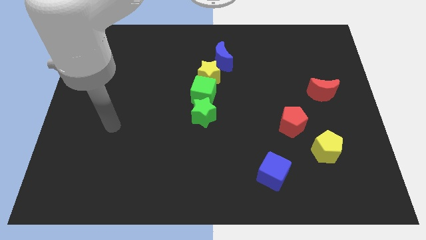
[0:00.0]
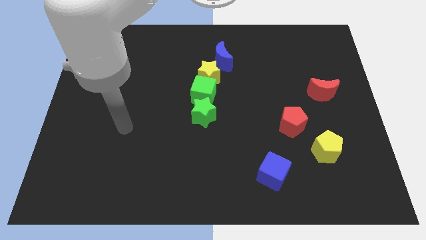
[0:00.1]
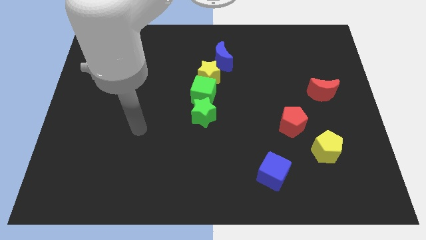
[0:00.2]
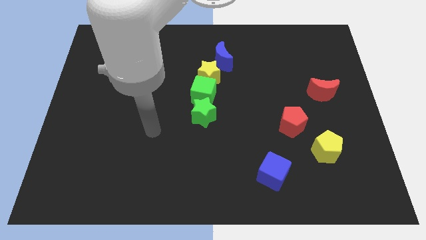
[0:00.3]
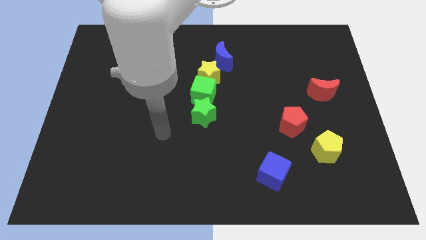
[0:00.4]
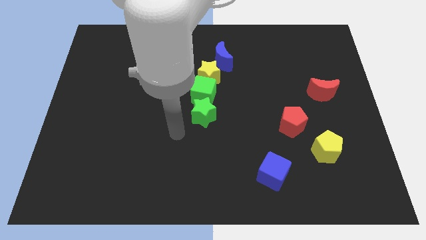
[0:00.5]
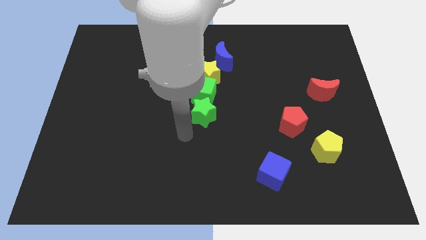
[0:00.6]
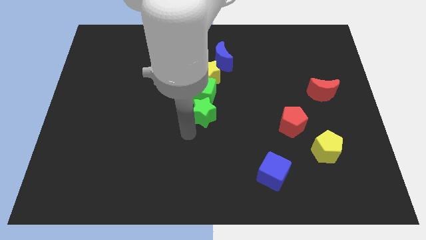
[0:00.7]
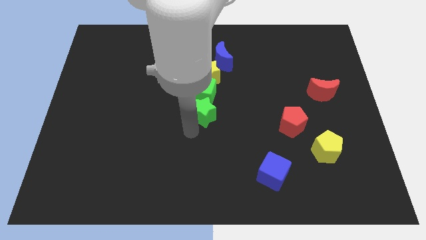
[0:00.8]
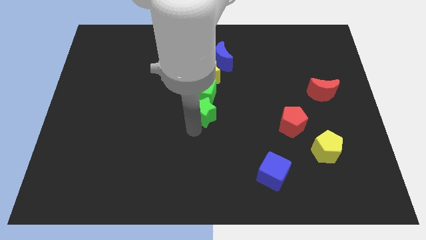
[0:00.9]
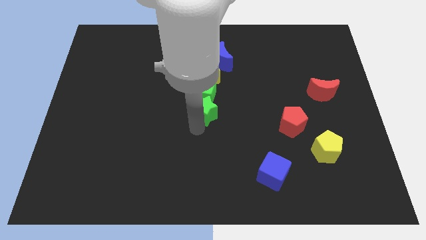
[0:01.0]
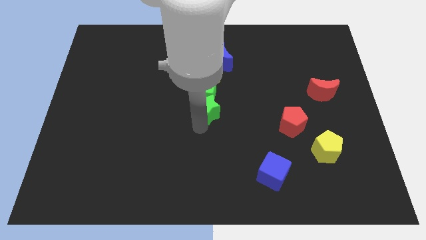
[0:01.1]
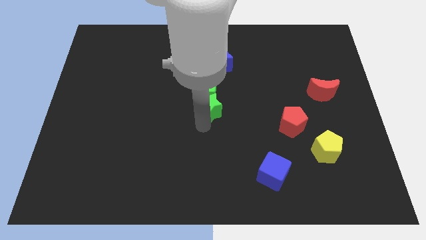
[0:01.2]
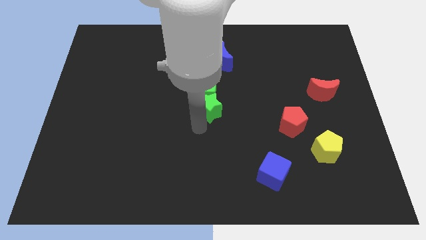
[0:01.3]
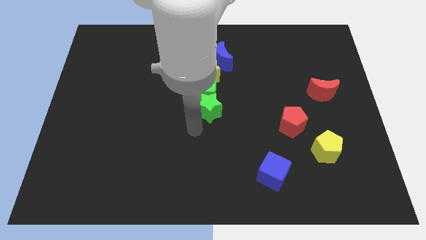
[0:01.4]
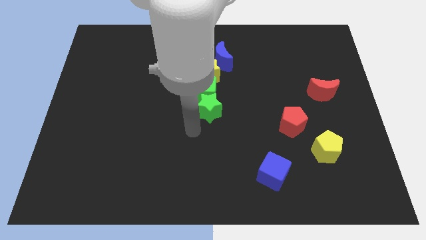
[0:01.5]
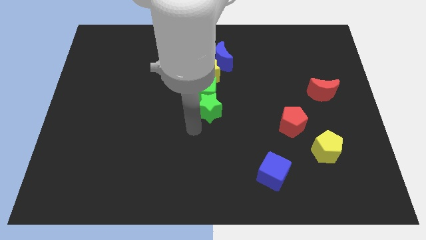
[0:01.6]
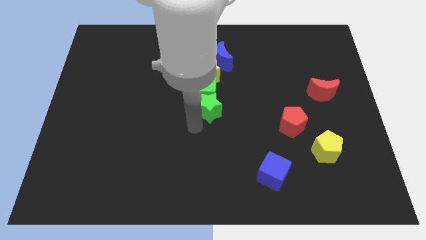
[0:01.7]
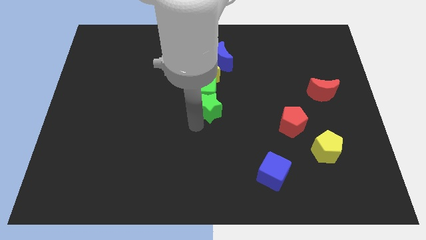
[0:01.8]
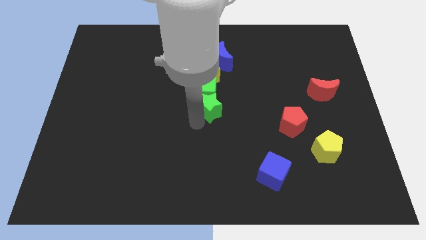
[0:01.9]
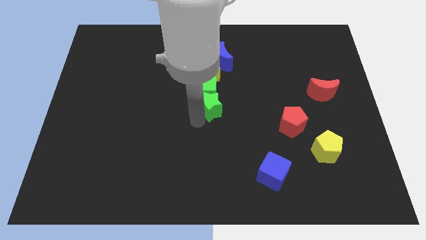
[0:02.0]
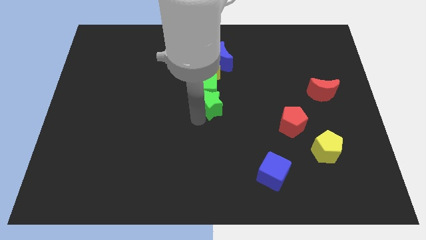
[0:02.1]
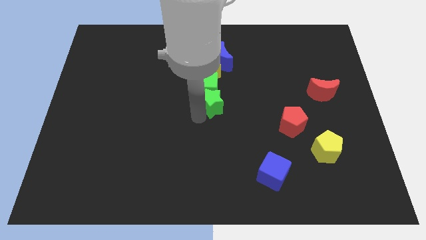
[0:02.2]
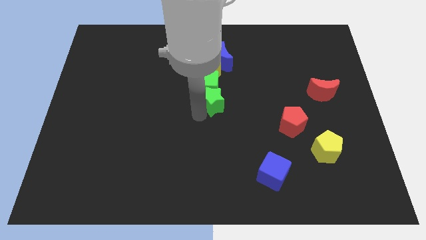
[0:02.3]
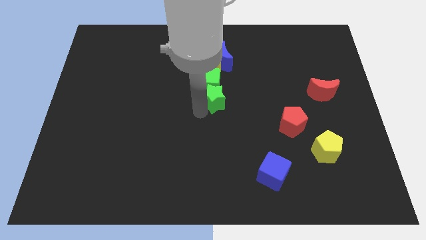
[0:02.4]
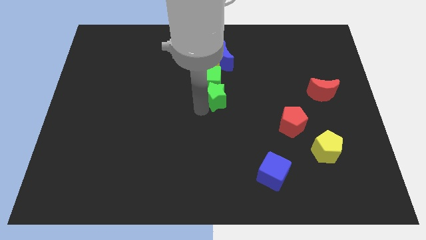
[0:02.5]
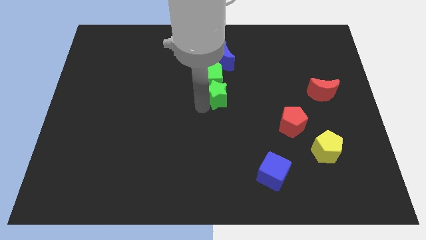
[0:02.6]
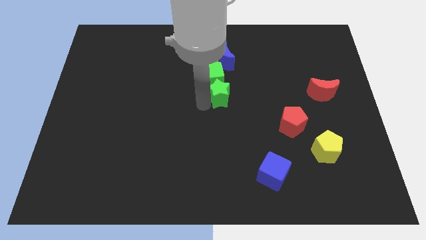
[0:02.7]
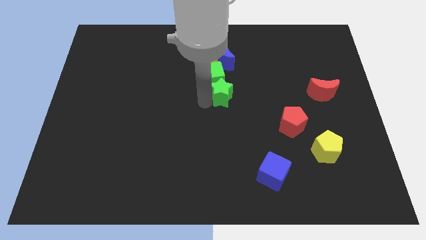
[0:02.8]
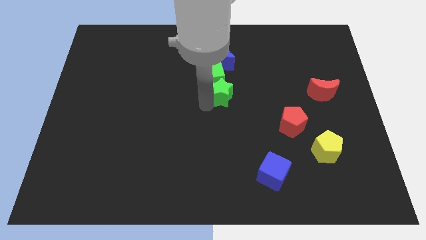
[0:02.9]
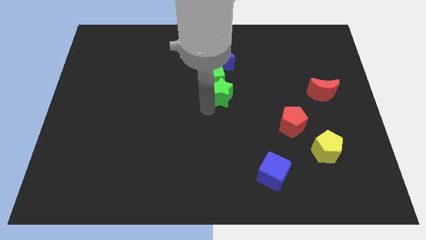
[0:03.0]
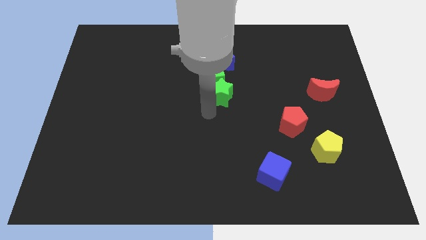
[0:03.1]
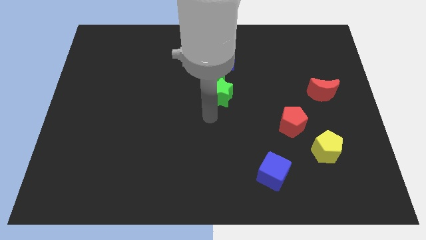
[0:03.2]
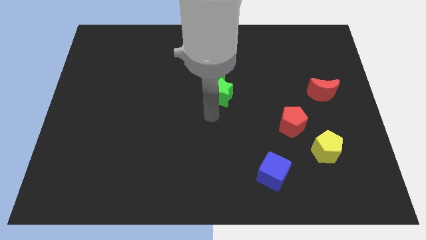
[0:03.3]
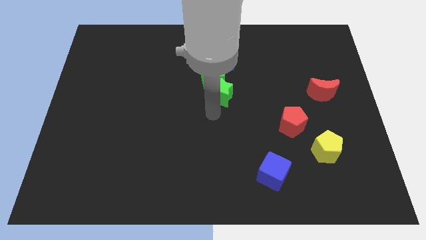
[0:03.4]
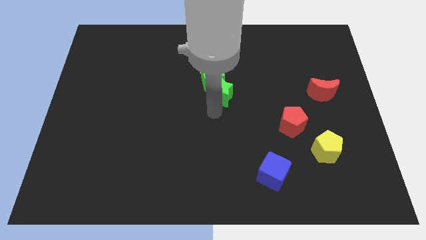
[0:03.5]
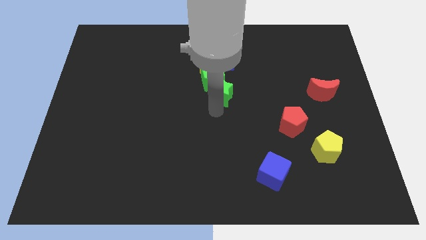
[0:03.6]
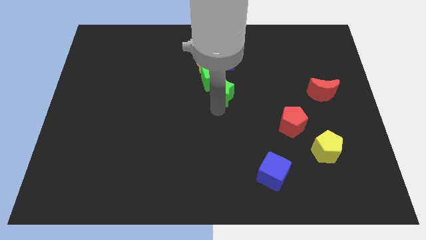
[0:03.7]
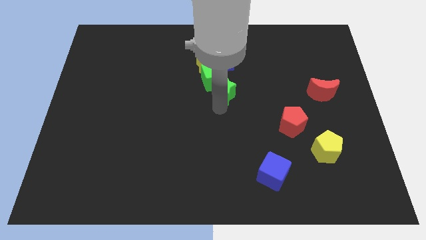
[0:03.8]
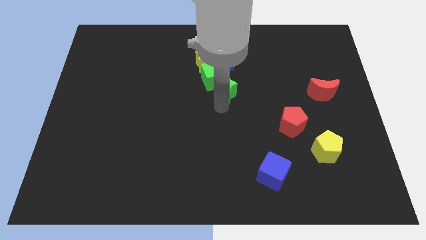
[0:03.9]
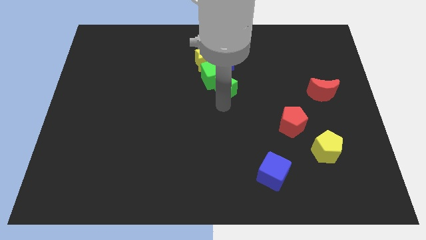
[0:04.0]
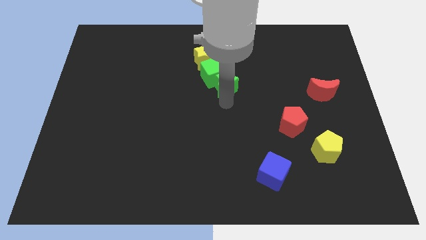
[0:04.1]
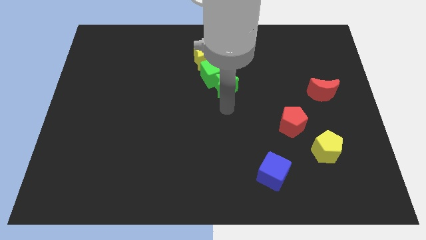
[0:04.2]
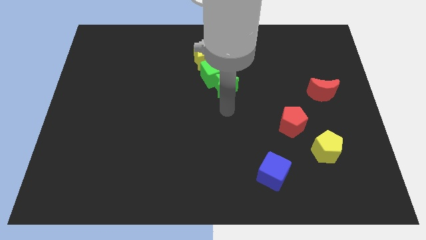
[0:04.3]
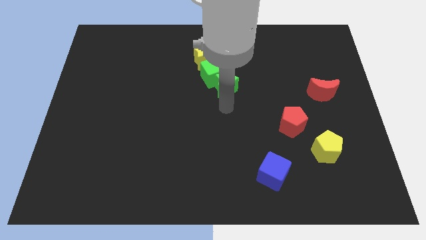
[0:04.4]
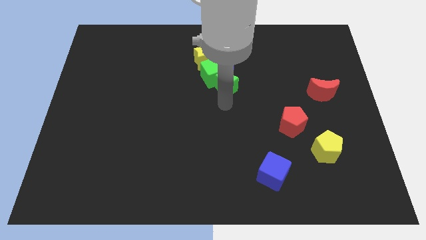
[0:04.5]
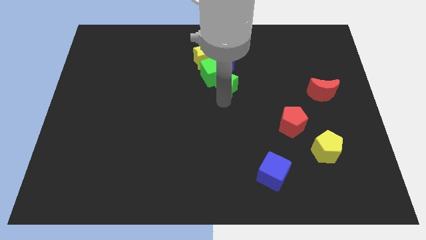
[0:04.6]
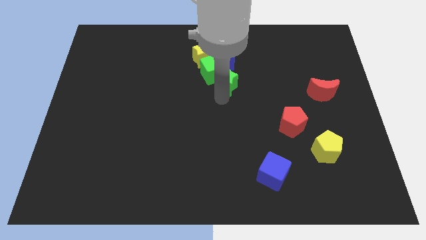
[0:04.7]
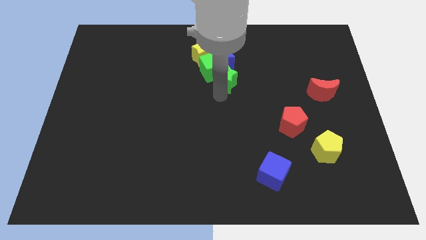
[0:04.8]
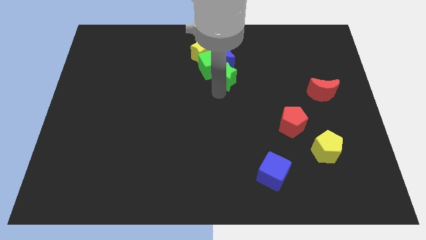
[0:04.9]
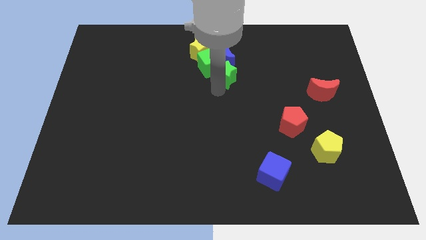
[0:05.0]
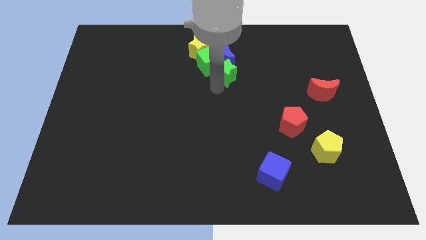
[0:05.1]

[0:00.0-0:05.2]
put the green star towards the blue moon

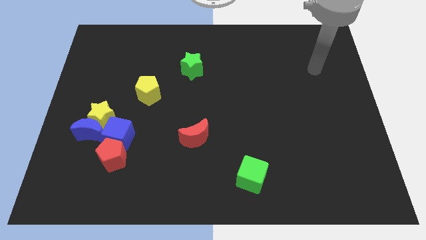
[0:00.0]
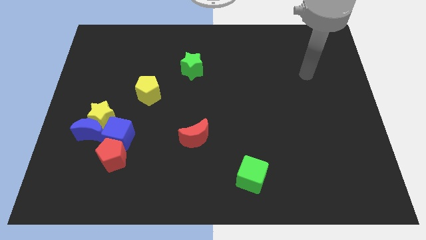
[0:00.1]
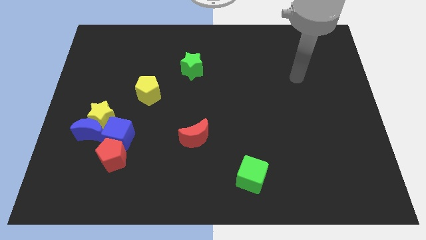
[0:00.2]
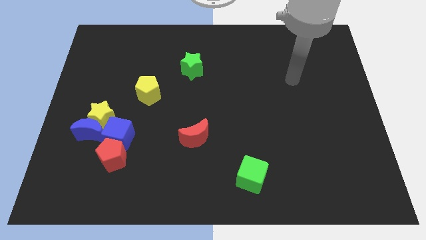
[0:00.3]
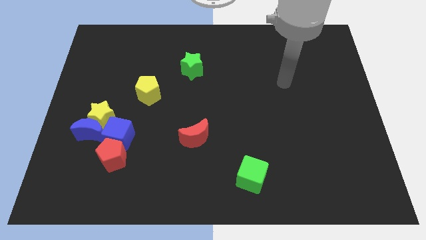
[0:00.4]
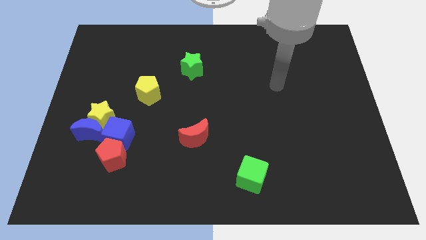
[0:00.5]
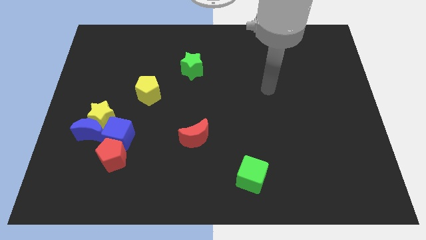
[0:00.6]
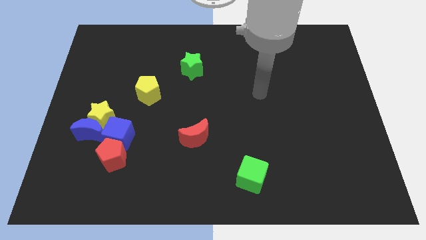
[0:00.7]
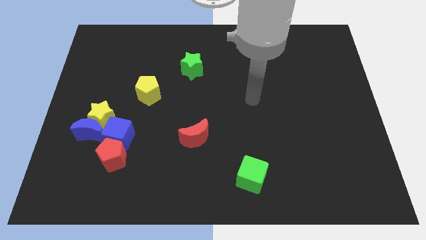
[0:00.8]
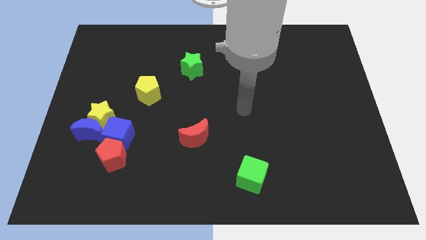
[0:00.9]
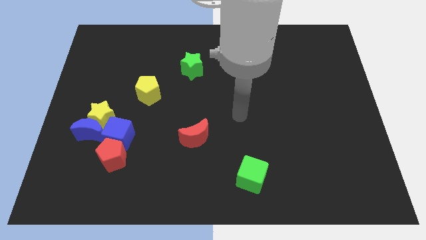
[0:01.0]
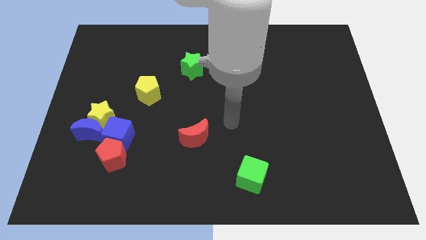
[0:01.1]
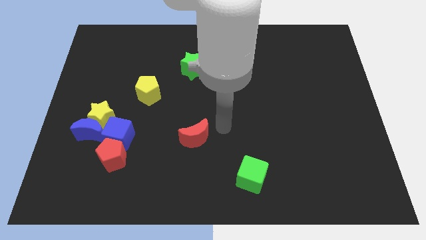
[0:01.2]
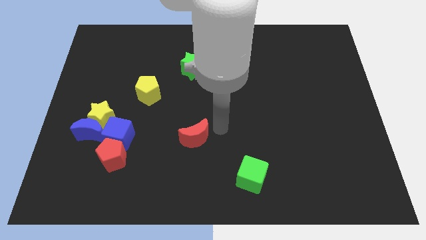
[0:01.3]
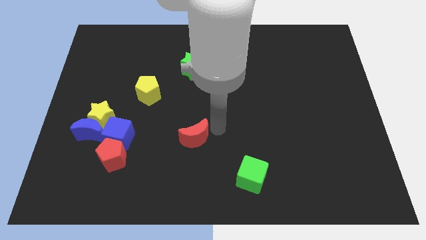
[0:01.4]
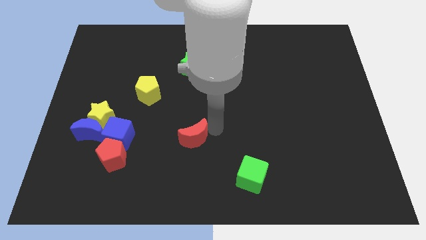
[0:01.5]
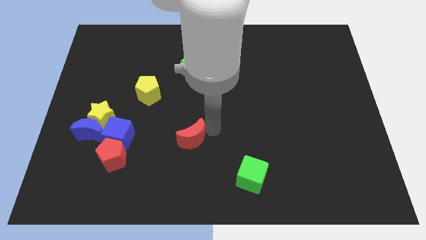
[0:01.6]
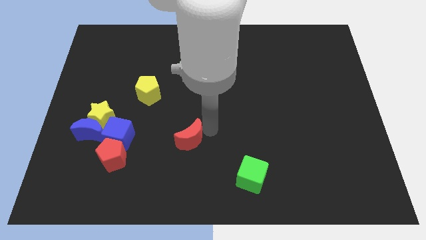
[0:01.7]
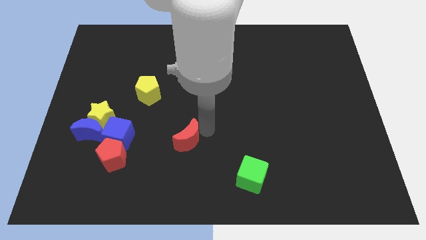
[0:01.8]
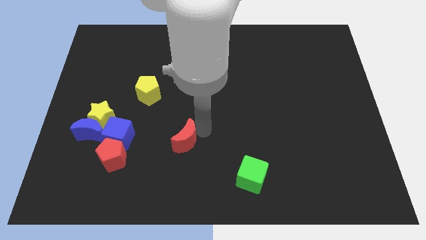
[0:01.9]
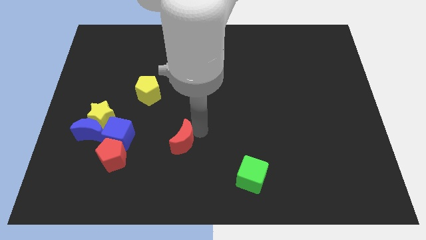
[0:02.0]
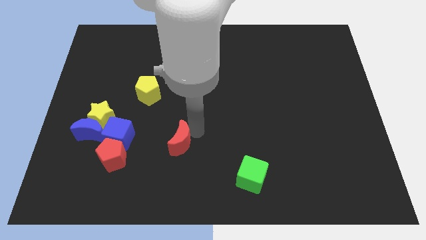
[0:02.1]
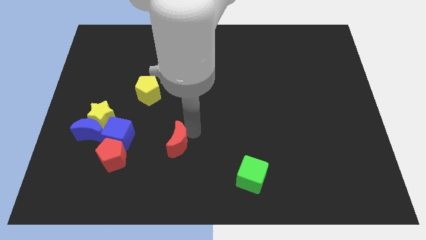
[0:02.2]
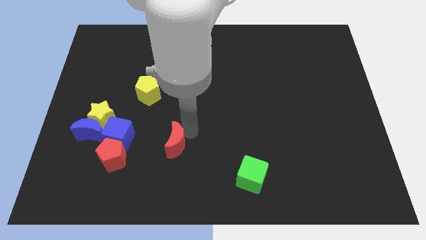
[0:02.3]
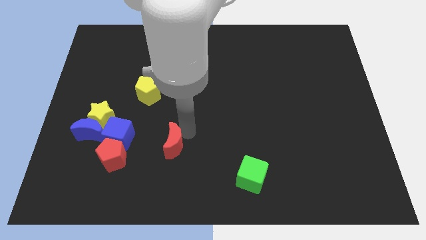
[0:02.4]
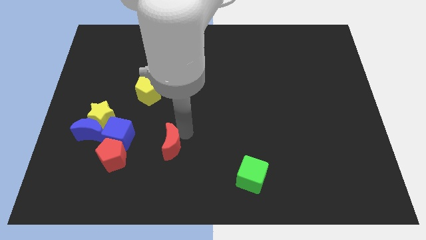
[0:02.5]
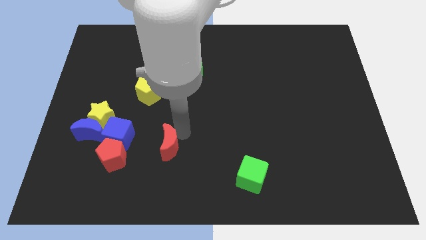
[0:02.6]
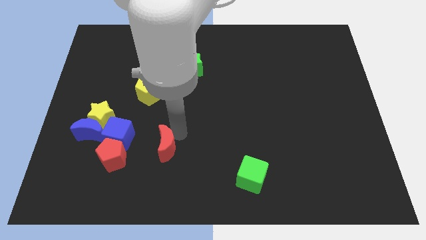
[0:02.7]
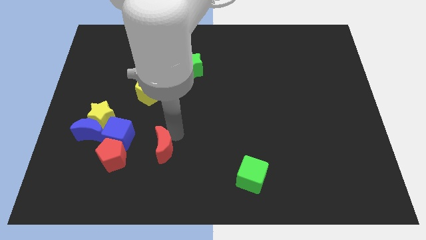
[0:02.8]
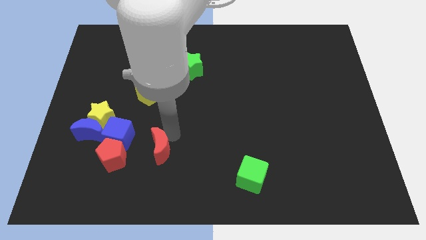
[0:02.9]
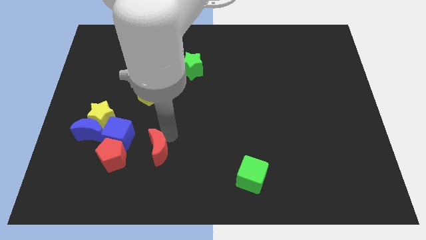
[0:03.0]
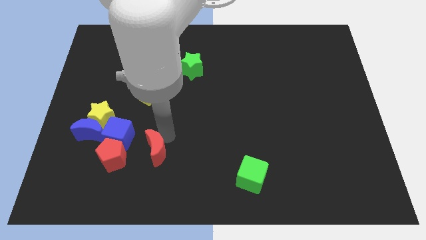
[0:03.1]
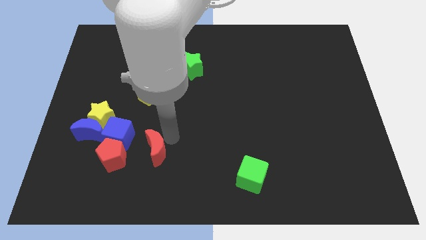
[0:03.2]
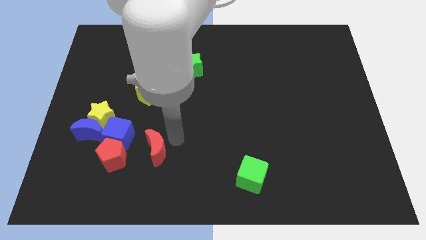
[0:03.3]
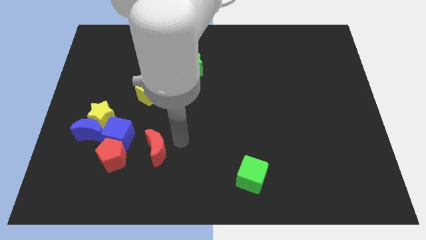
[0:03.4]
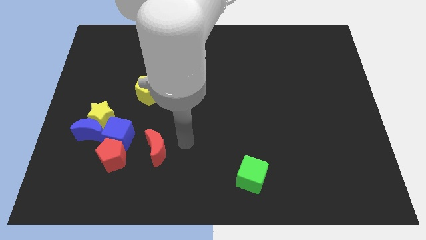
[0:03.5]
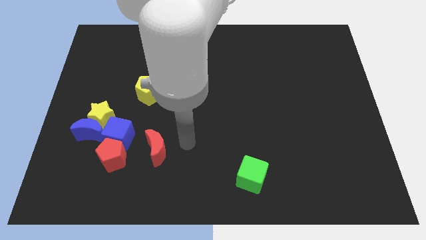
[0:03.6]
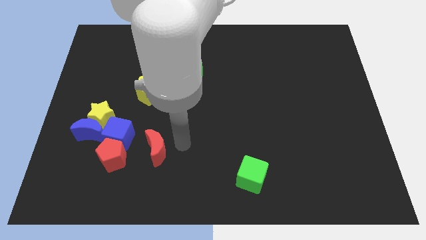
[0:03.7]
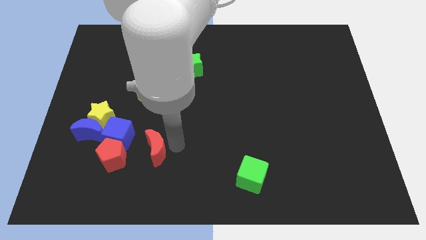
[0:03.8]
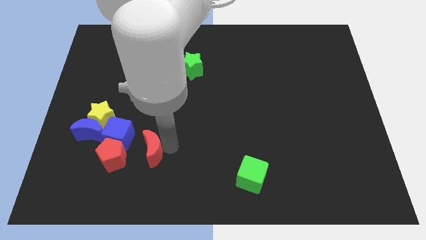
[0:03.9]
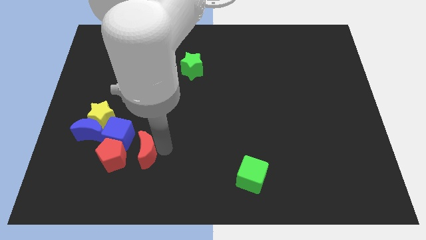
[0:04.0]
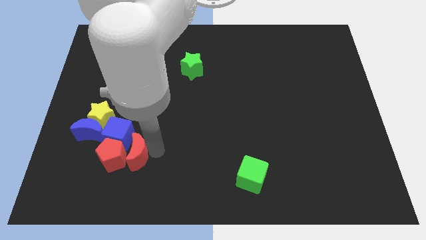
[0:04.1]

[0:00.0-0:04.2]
move the red moon to the red pentagon
